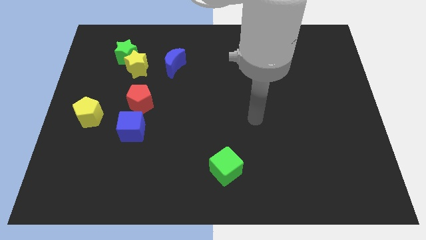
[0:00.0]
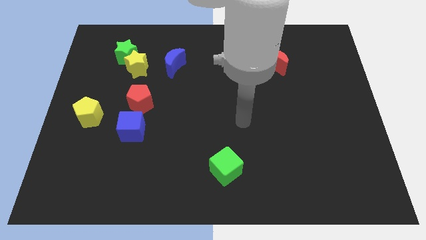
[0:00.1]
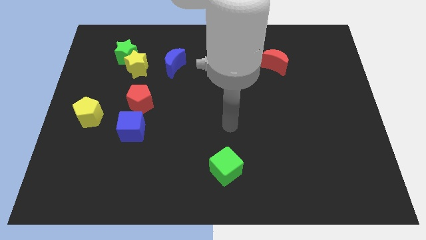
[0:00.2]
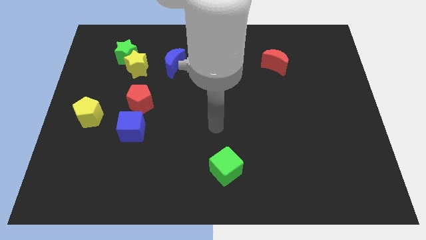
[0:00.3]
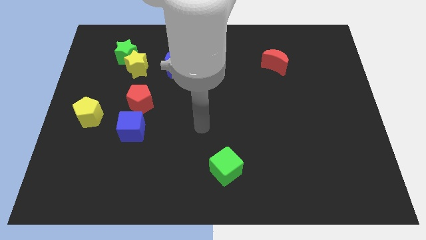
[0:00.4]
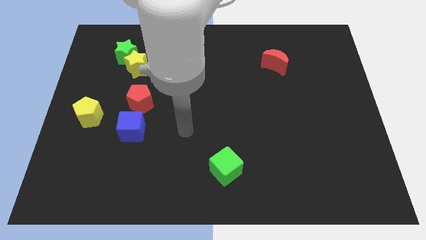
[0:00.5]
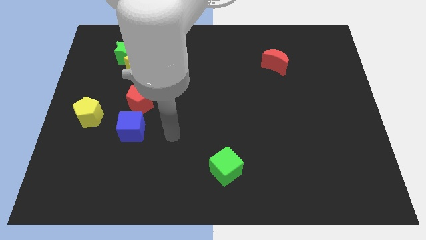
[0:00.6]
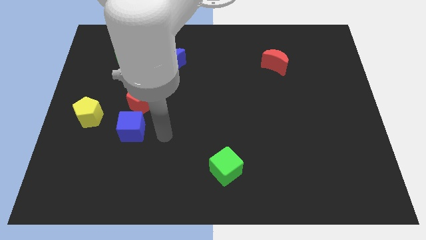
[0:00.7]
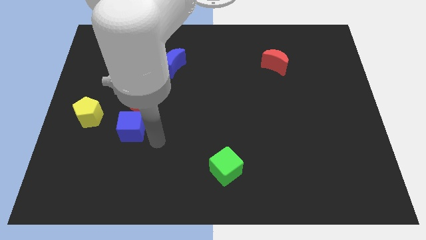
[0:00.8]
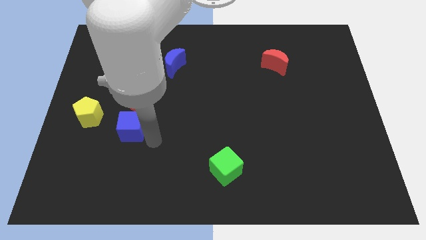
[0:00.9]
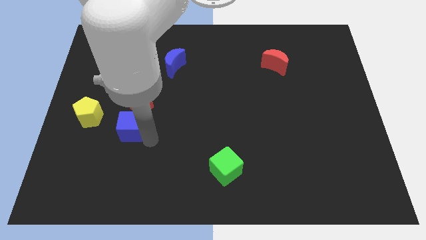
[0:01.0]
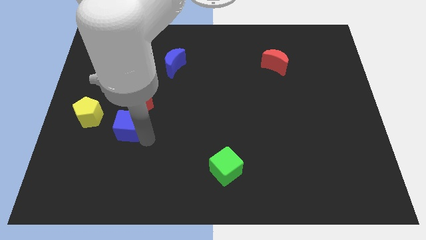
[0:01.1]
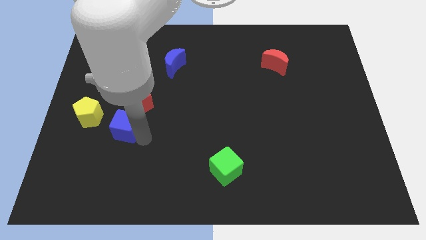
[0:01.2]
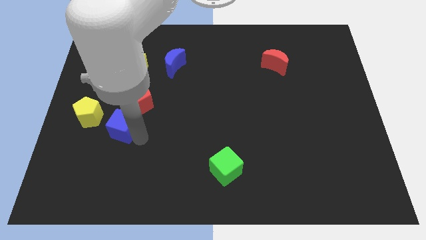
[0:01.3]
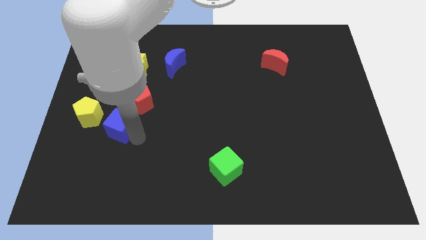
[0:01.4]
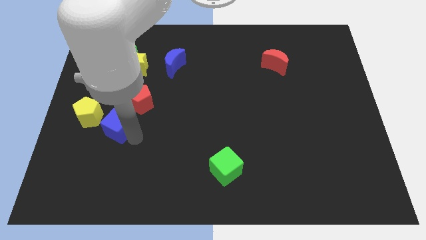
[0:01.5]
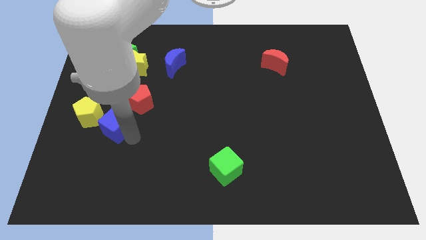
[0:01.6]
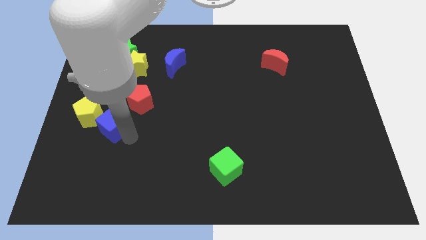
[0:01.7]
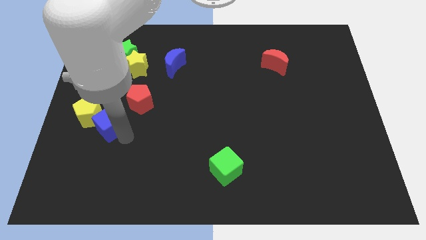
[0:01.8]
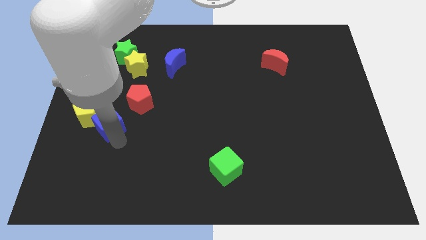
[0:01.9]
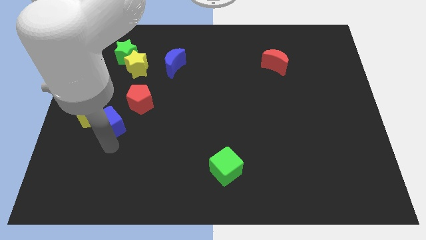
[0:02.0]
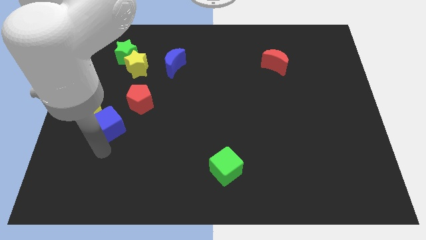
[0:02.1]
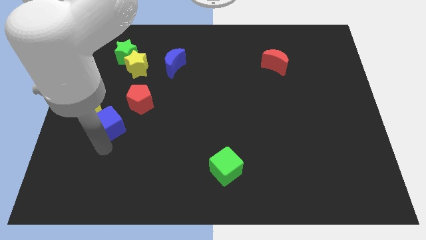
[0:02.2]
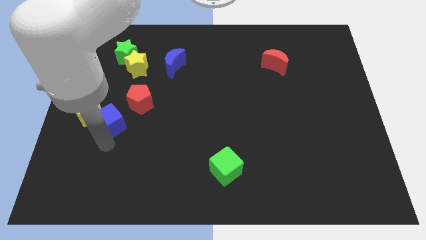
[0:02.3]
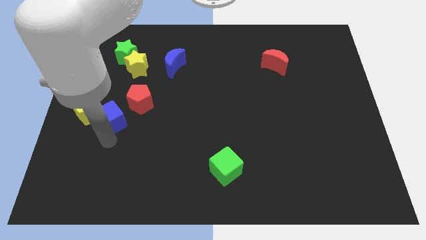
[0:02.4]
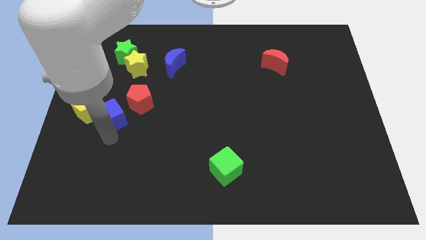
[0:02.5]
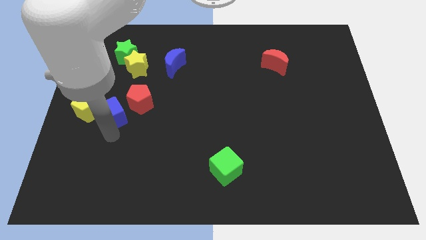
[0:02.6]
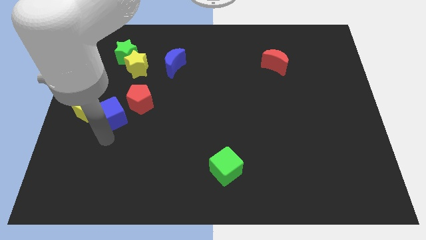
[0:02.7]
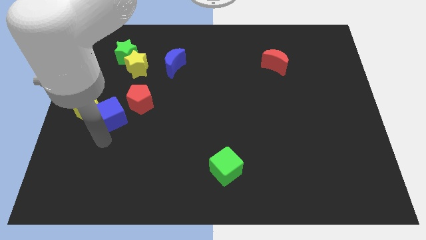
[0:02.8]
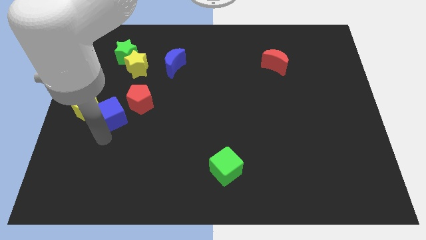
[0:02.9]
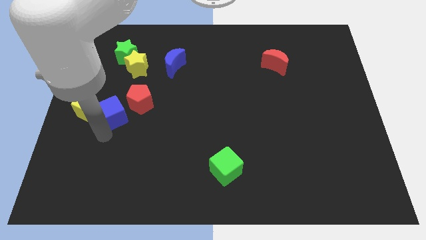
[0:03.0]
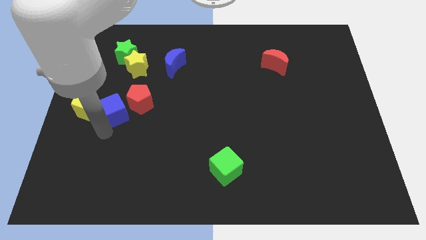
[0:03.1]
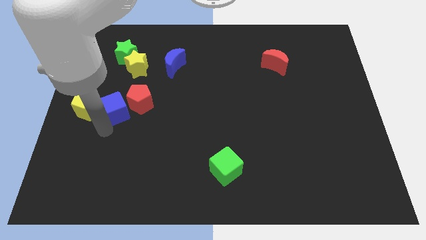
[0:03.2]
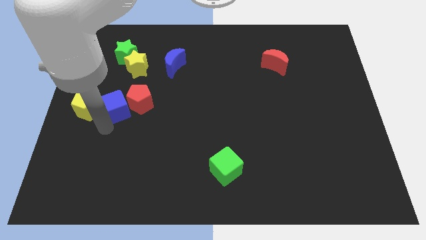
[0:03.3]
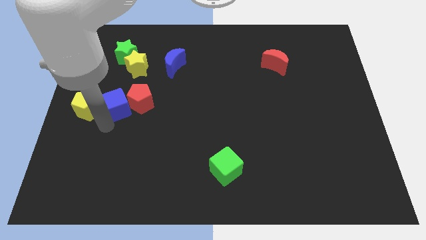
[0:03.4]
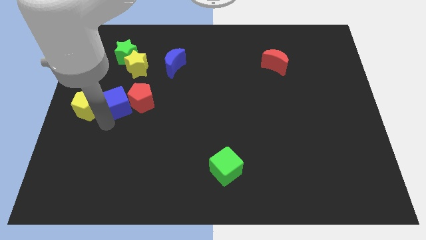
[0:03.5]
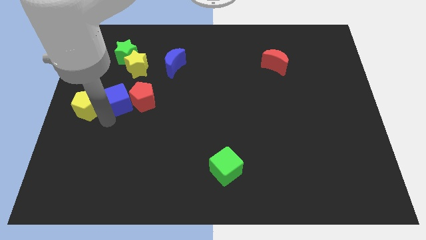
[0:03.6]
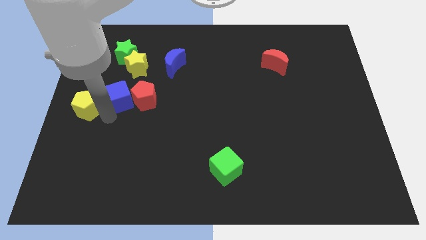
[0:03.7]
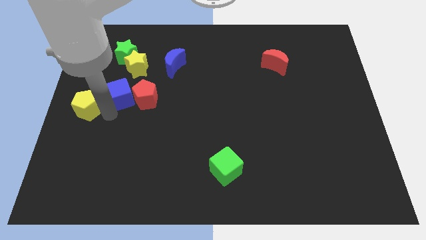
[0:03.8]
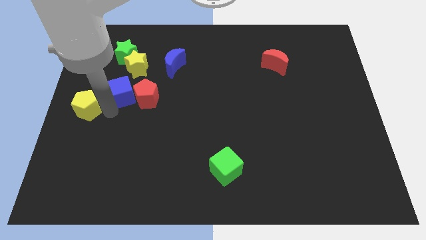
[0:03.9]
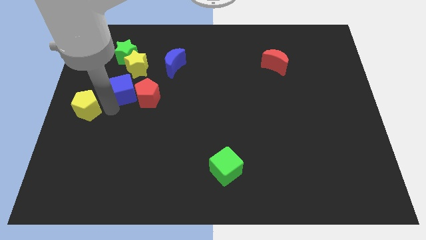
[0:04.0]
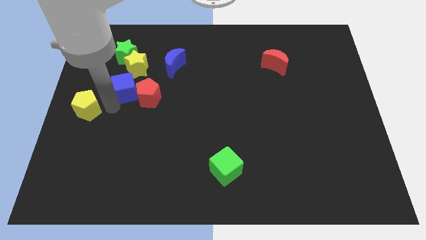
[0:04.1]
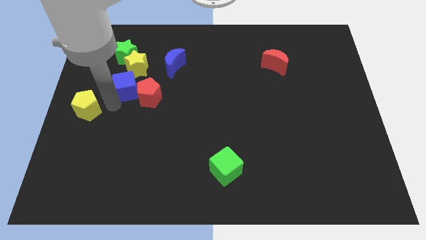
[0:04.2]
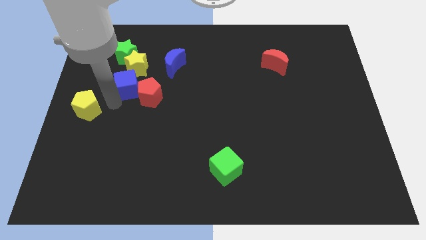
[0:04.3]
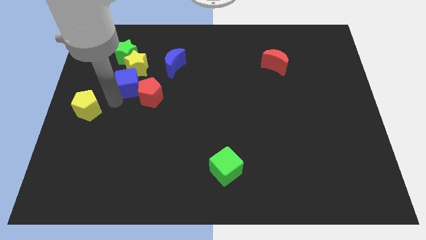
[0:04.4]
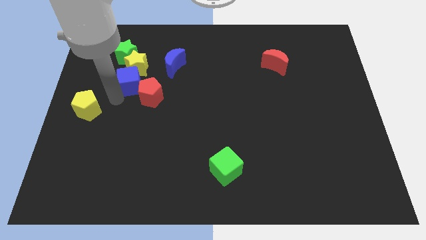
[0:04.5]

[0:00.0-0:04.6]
slide the blue cube towards the yellow star

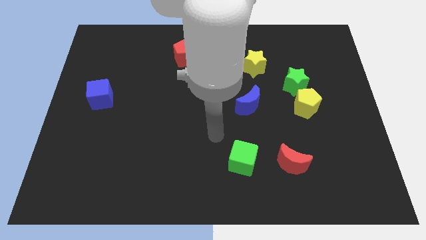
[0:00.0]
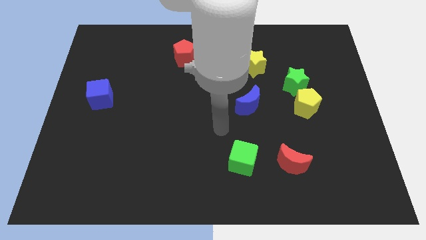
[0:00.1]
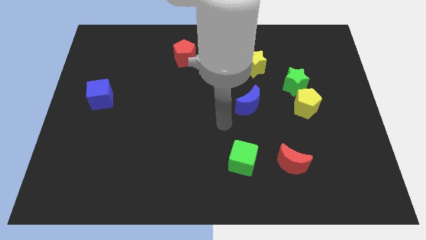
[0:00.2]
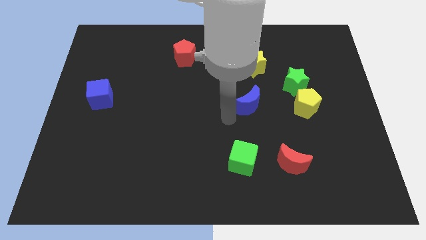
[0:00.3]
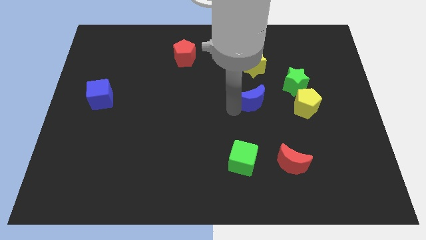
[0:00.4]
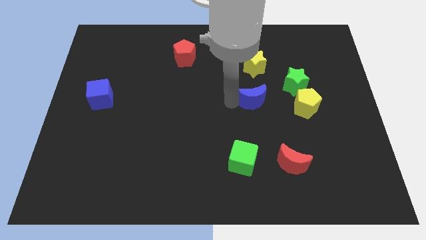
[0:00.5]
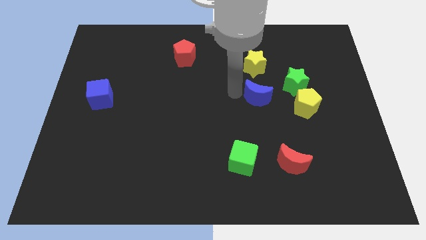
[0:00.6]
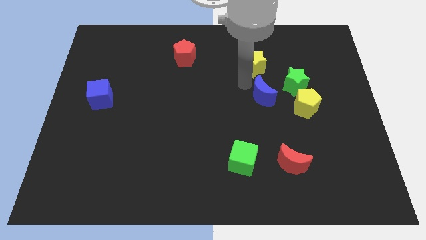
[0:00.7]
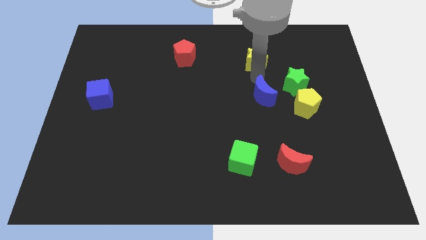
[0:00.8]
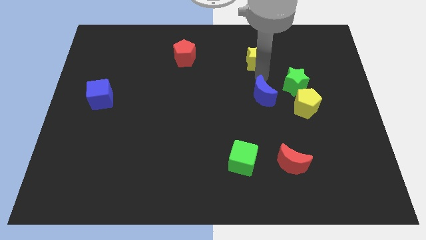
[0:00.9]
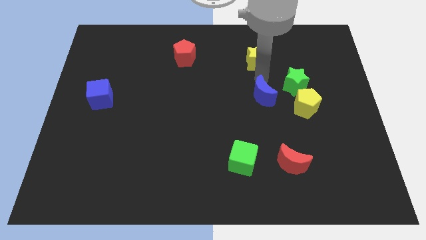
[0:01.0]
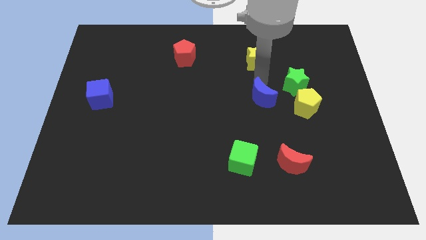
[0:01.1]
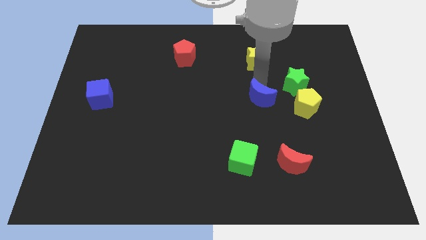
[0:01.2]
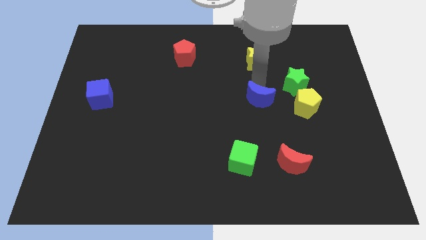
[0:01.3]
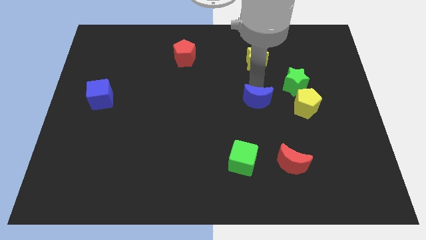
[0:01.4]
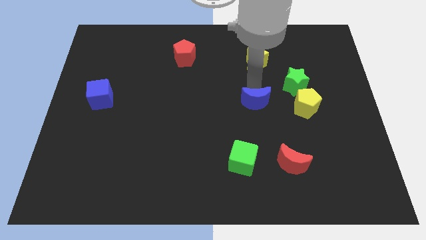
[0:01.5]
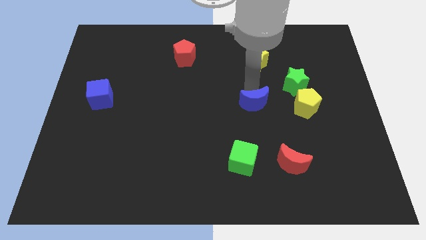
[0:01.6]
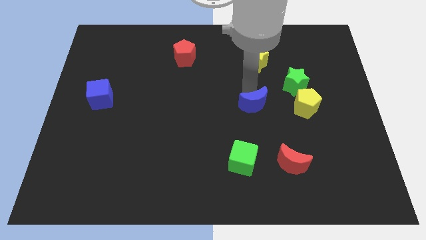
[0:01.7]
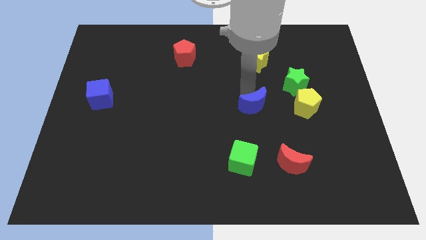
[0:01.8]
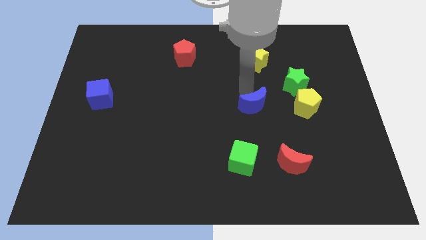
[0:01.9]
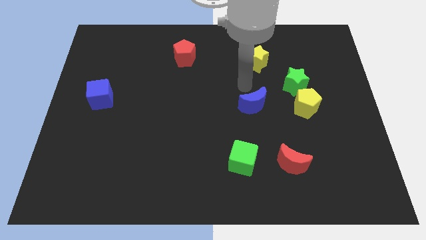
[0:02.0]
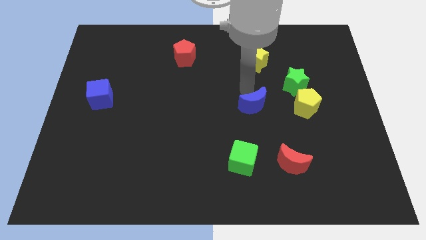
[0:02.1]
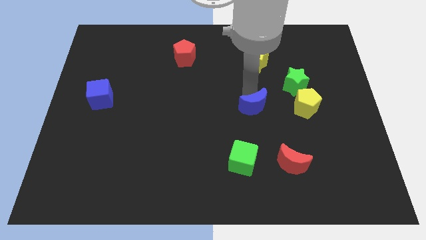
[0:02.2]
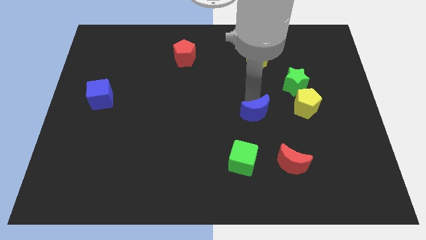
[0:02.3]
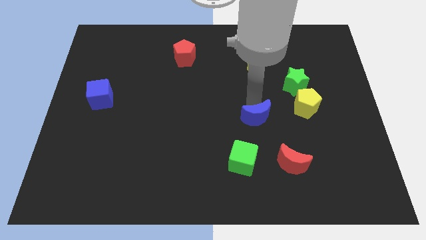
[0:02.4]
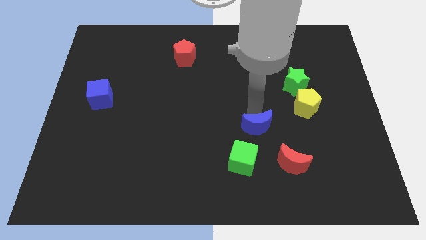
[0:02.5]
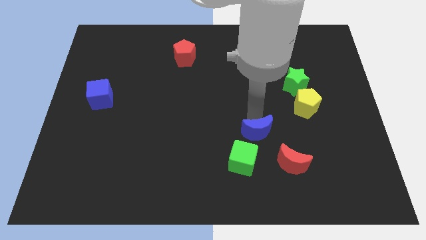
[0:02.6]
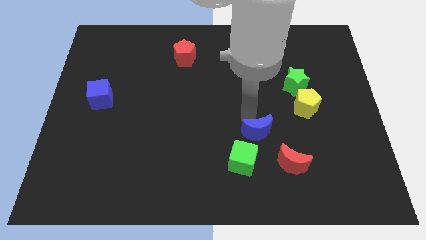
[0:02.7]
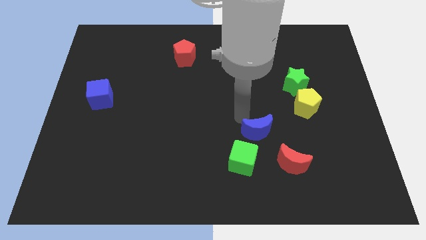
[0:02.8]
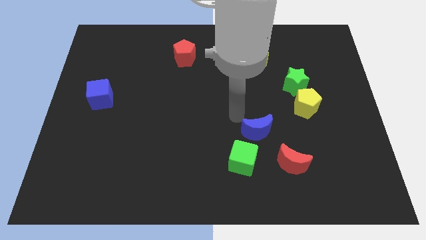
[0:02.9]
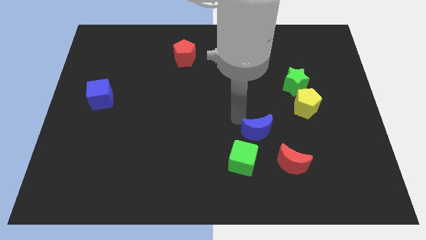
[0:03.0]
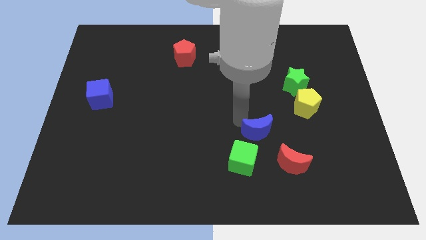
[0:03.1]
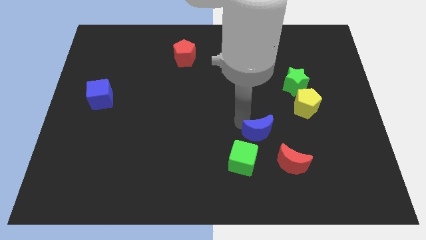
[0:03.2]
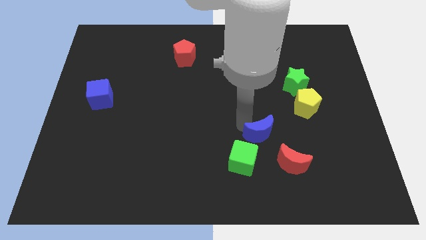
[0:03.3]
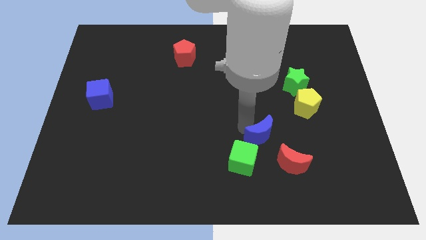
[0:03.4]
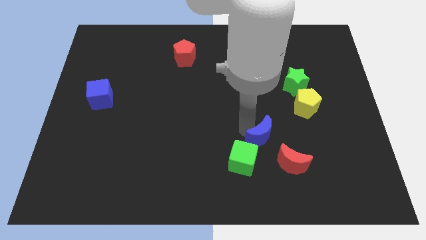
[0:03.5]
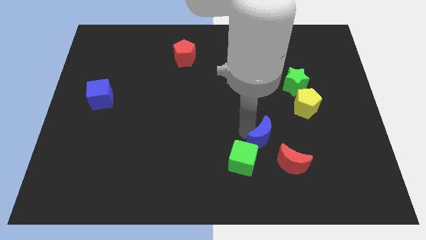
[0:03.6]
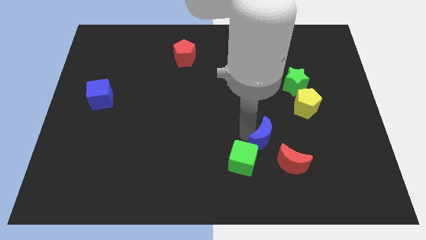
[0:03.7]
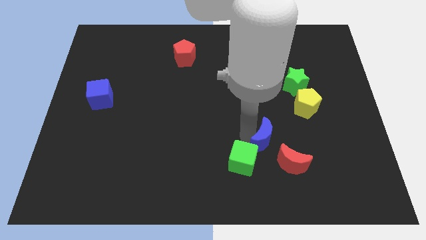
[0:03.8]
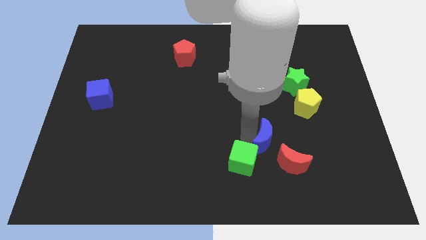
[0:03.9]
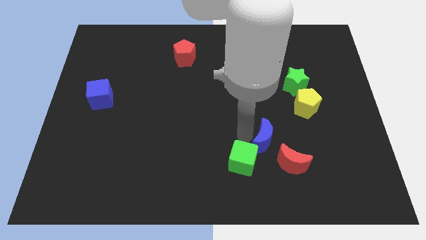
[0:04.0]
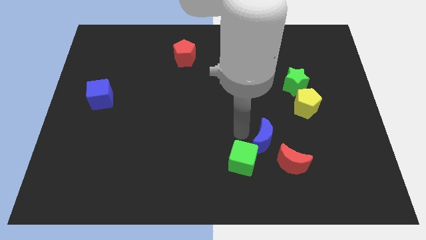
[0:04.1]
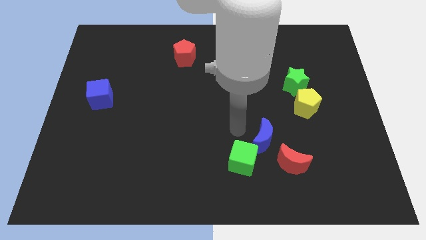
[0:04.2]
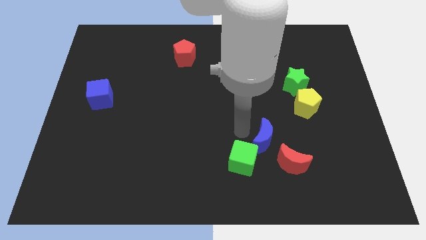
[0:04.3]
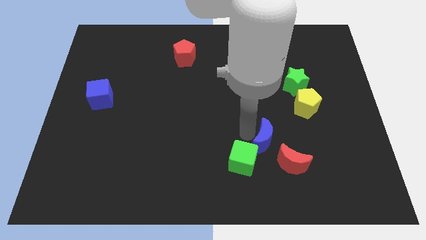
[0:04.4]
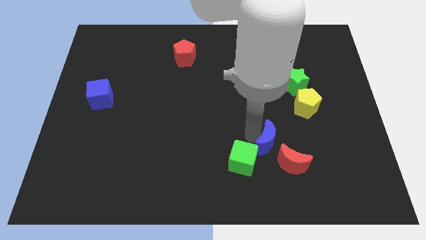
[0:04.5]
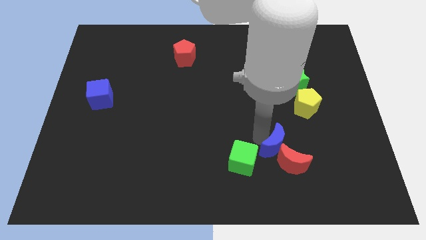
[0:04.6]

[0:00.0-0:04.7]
slide the blue moon towards the red moon
